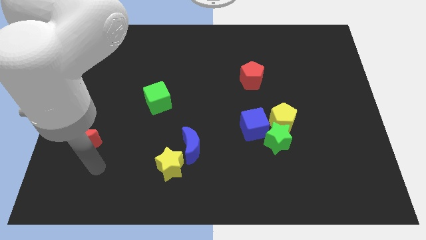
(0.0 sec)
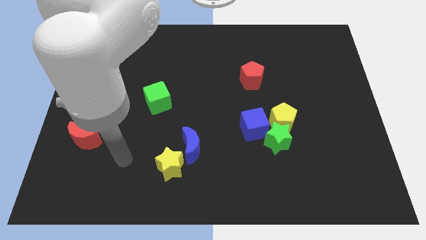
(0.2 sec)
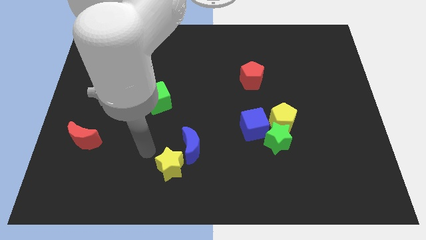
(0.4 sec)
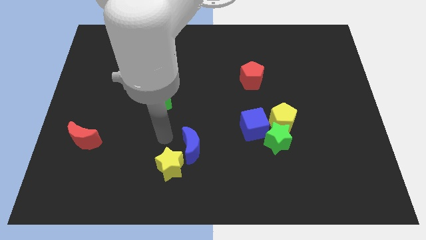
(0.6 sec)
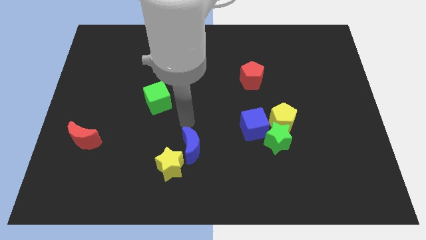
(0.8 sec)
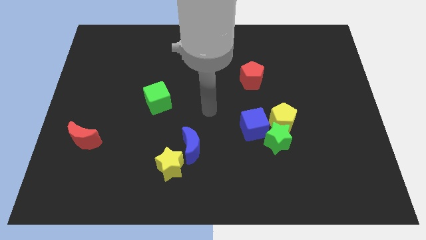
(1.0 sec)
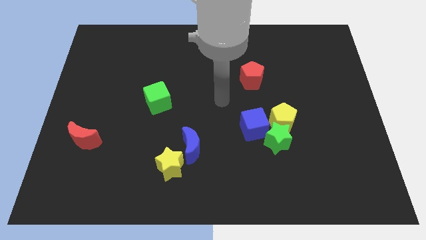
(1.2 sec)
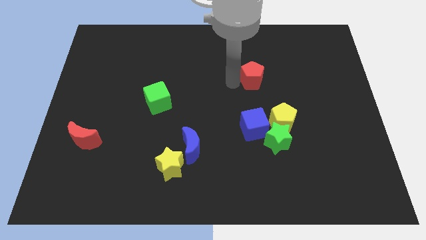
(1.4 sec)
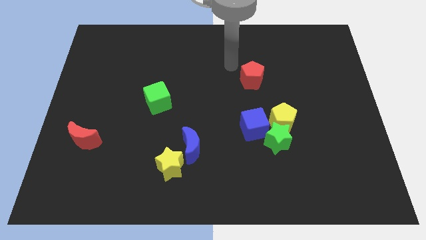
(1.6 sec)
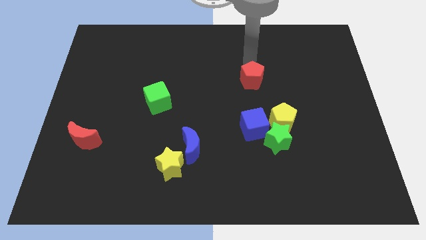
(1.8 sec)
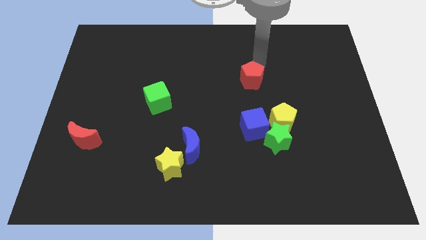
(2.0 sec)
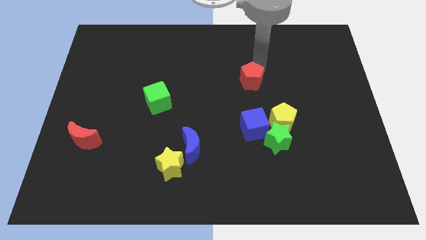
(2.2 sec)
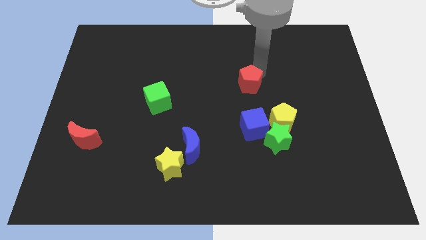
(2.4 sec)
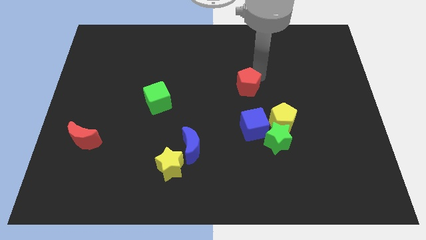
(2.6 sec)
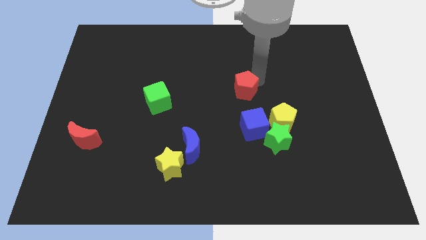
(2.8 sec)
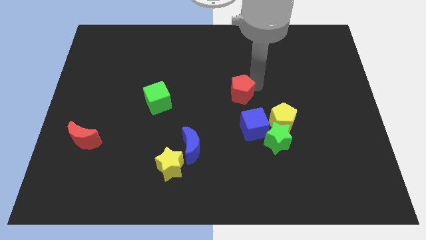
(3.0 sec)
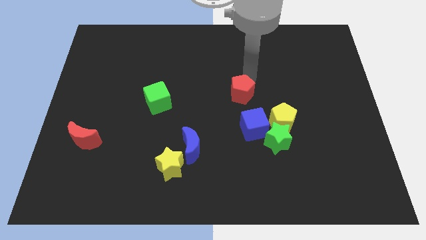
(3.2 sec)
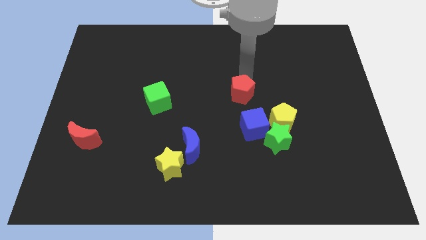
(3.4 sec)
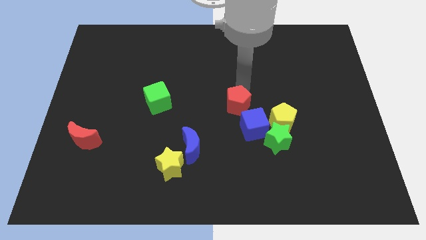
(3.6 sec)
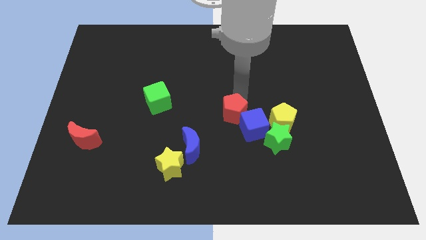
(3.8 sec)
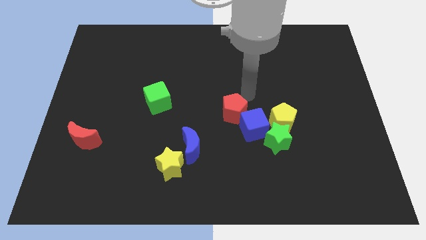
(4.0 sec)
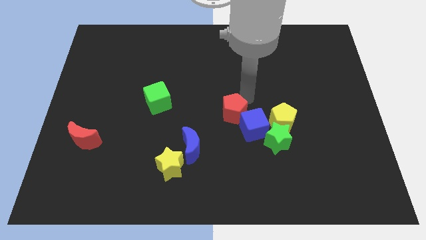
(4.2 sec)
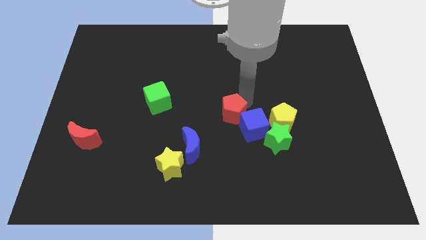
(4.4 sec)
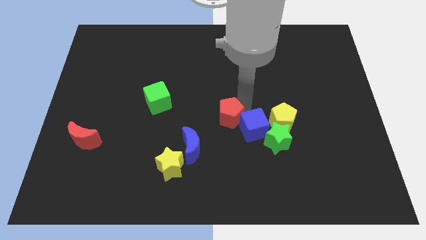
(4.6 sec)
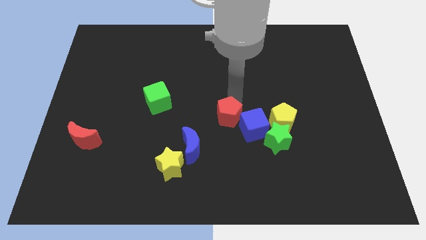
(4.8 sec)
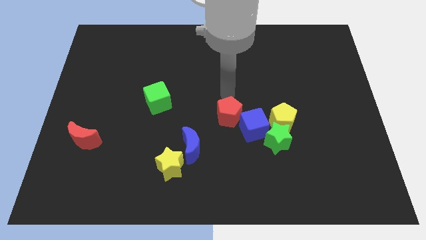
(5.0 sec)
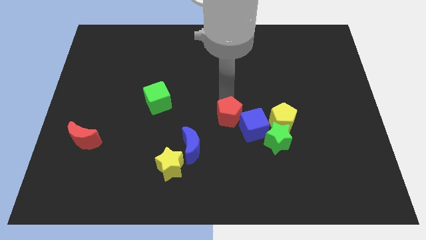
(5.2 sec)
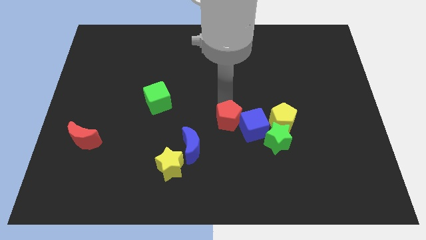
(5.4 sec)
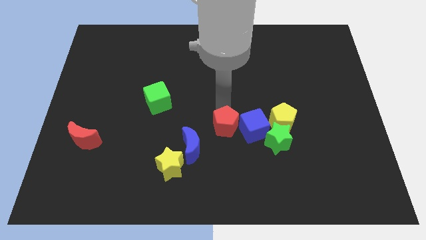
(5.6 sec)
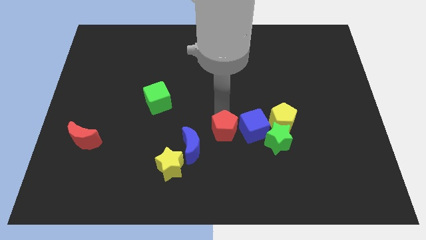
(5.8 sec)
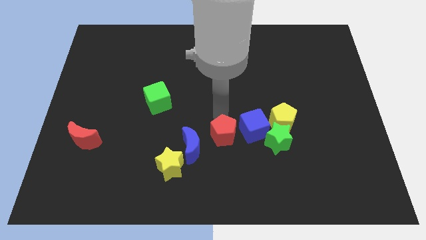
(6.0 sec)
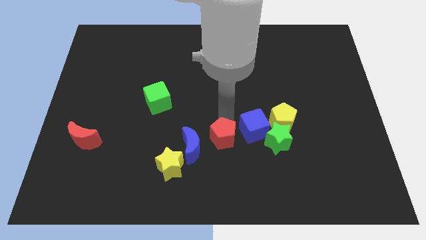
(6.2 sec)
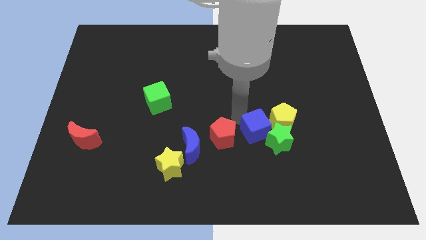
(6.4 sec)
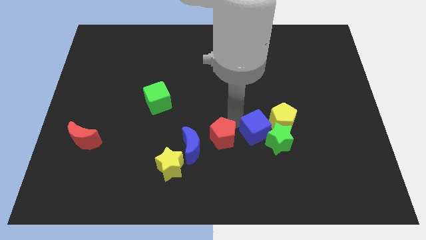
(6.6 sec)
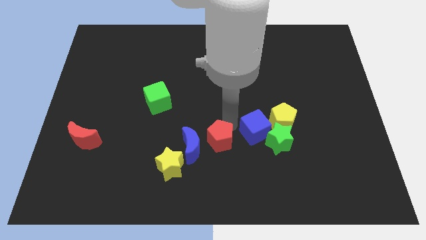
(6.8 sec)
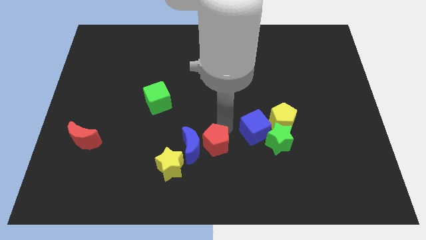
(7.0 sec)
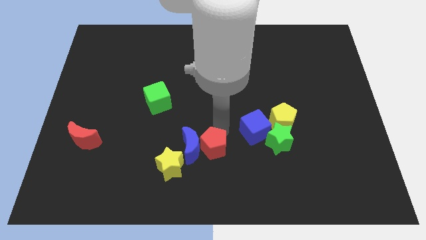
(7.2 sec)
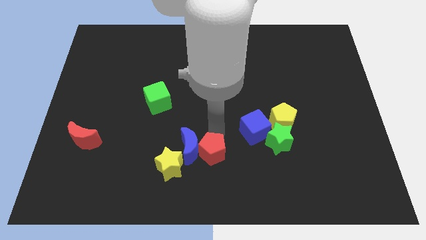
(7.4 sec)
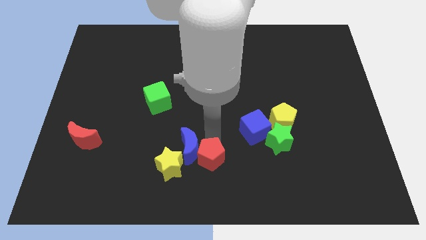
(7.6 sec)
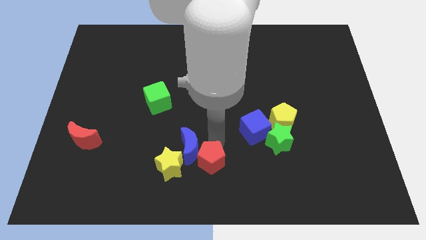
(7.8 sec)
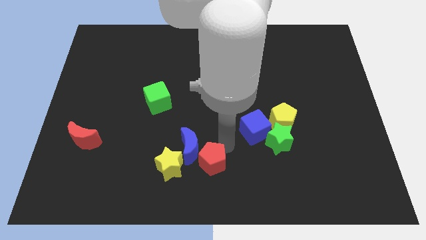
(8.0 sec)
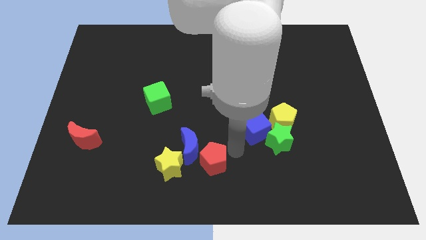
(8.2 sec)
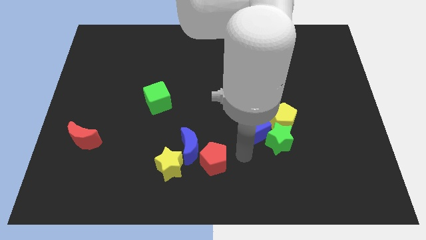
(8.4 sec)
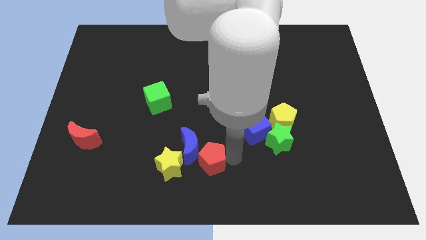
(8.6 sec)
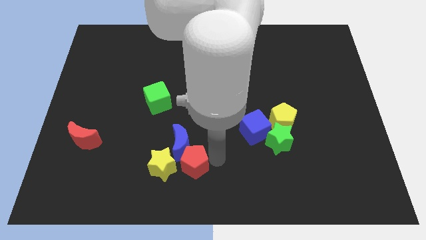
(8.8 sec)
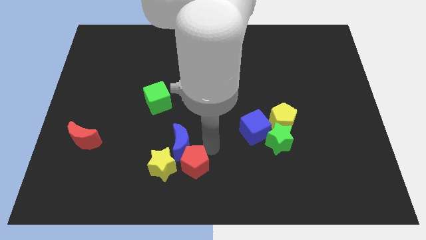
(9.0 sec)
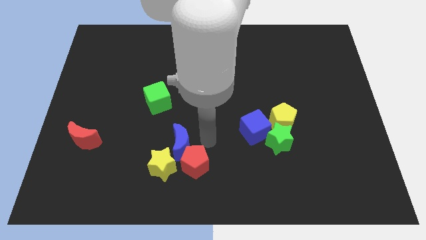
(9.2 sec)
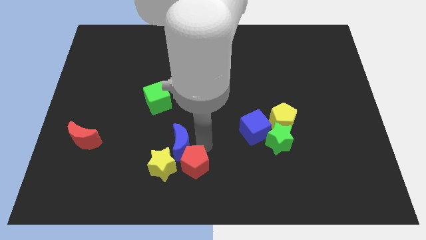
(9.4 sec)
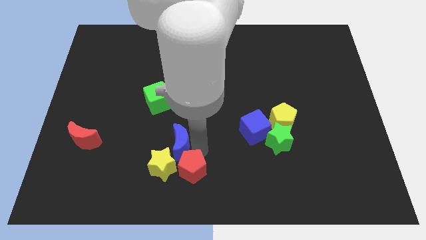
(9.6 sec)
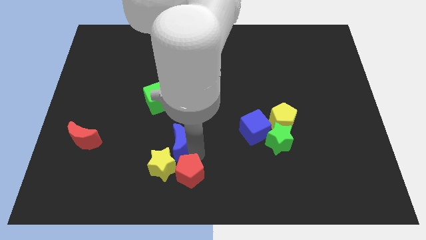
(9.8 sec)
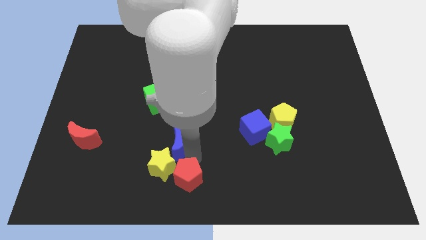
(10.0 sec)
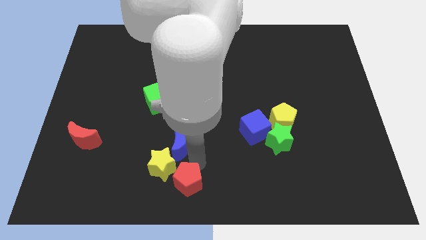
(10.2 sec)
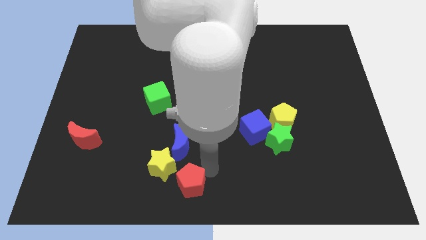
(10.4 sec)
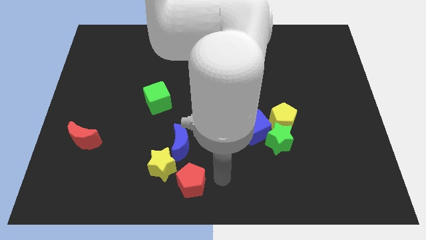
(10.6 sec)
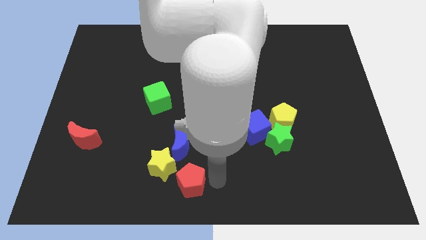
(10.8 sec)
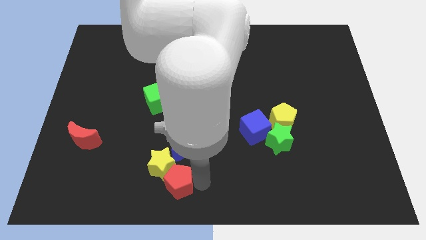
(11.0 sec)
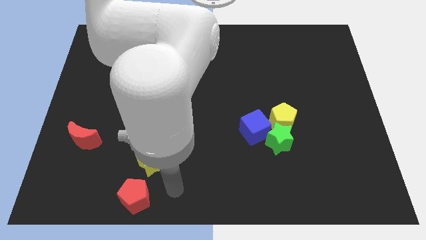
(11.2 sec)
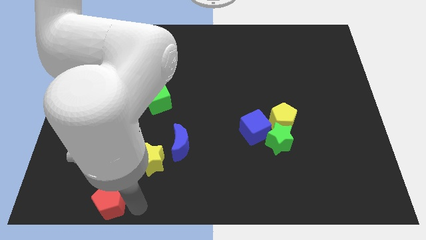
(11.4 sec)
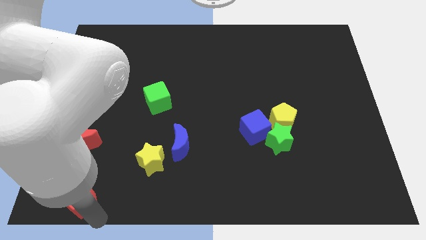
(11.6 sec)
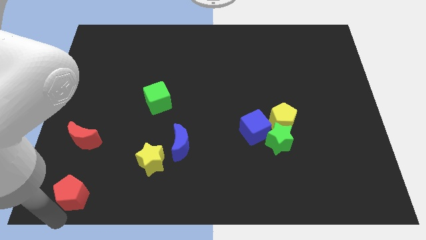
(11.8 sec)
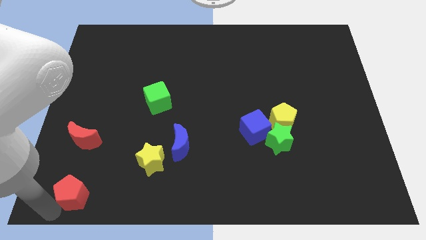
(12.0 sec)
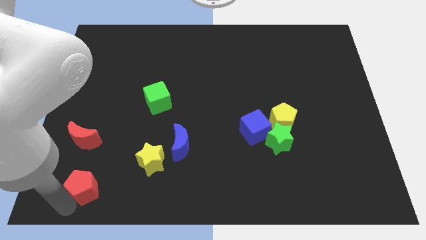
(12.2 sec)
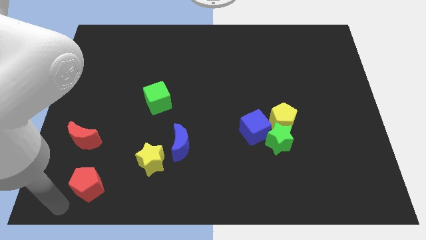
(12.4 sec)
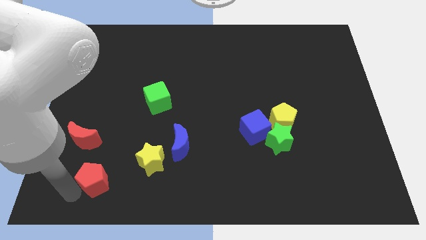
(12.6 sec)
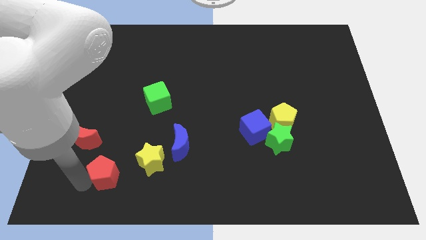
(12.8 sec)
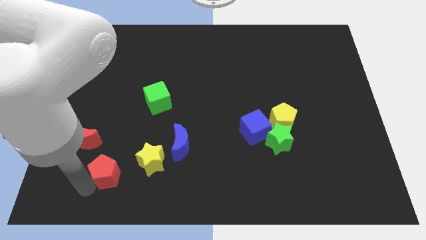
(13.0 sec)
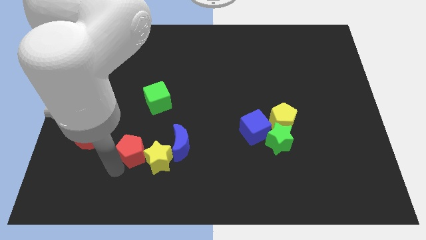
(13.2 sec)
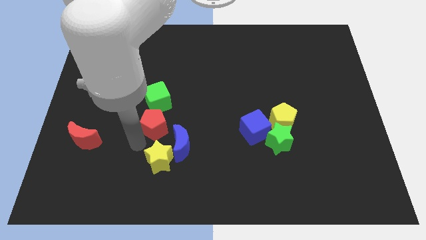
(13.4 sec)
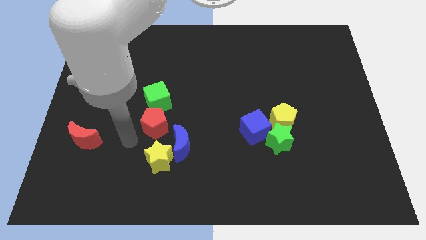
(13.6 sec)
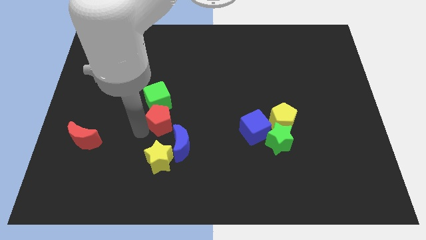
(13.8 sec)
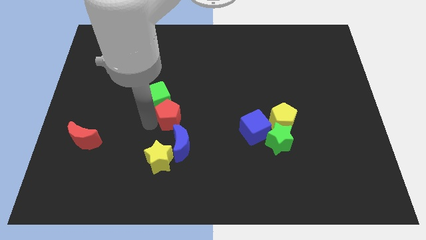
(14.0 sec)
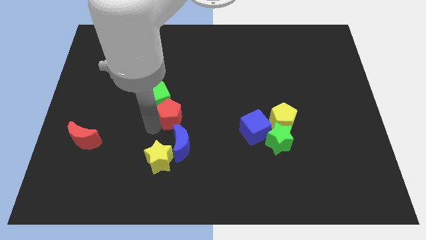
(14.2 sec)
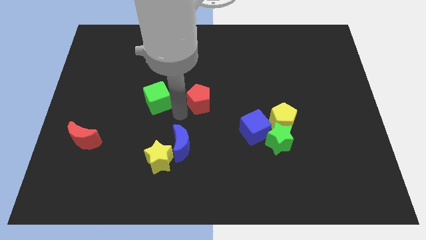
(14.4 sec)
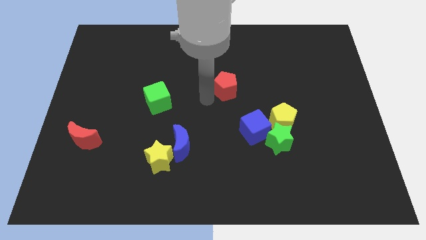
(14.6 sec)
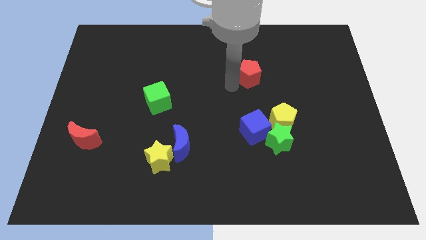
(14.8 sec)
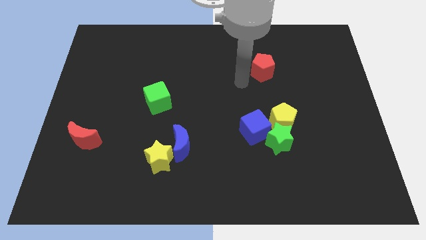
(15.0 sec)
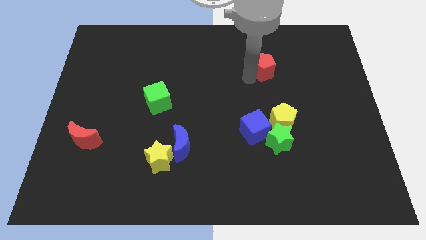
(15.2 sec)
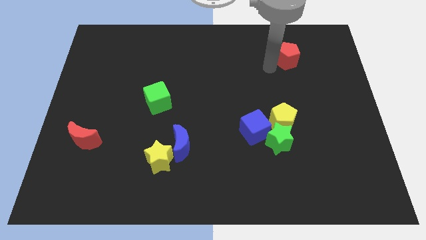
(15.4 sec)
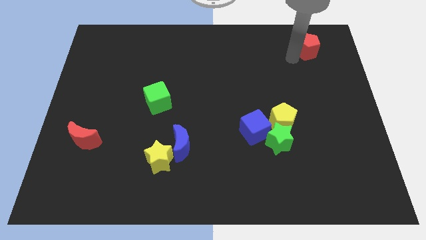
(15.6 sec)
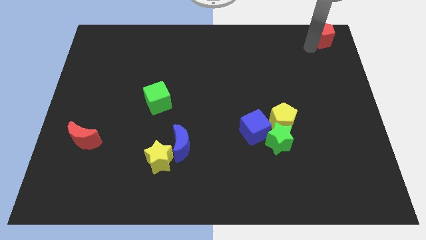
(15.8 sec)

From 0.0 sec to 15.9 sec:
slide the red pentagon to the top right corner
